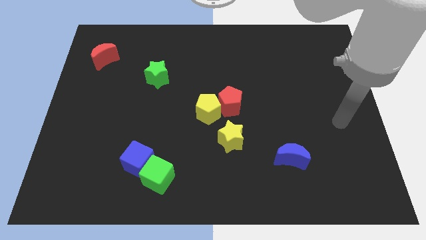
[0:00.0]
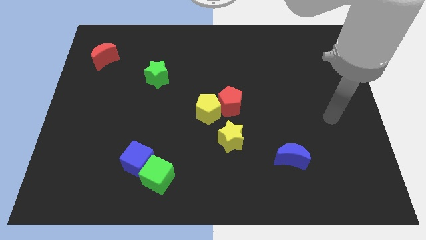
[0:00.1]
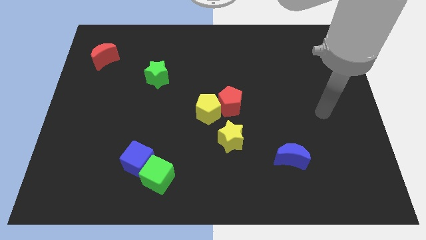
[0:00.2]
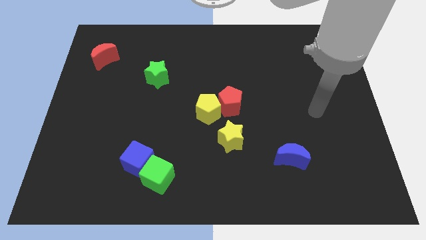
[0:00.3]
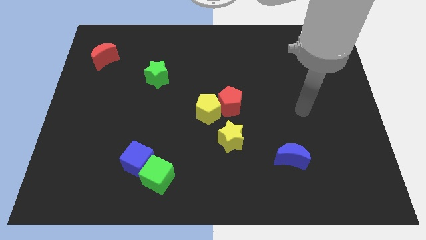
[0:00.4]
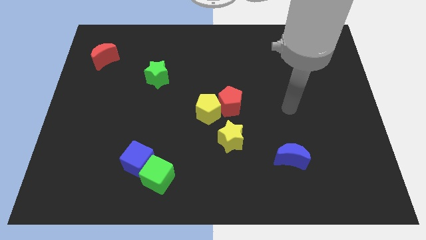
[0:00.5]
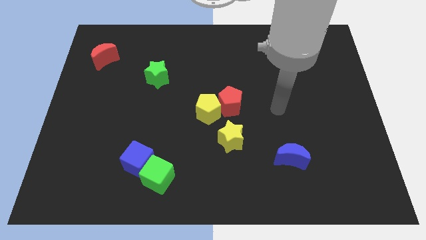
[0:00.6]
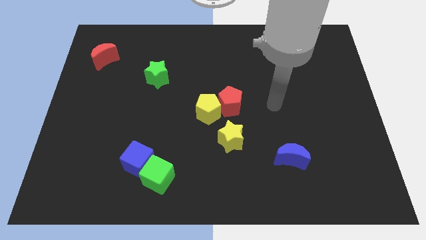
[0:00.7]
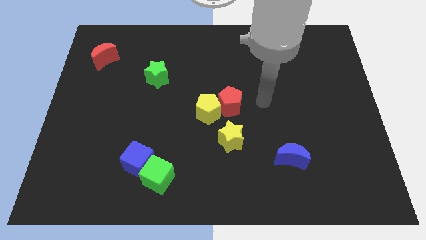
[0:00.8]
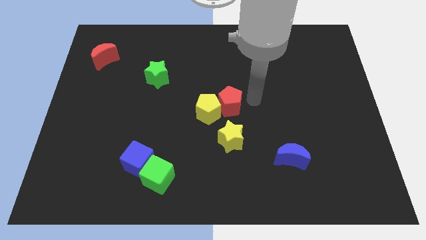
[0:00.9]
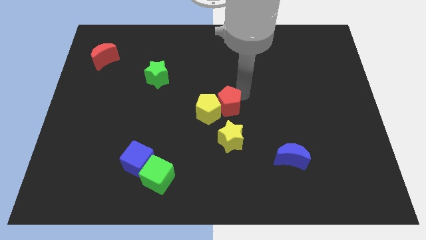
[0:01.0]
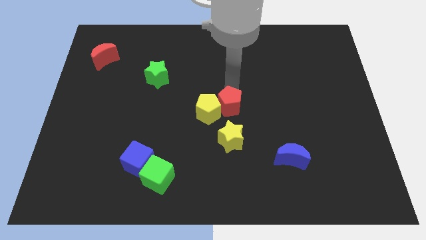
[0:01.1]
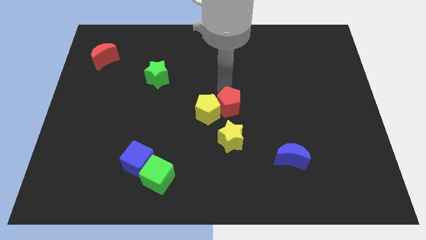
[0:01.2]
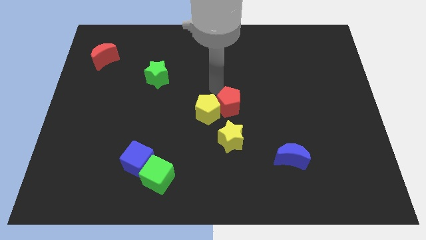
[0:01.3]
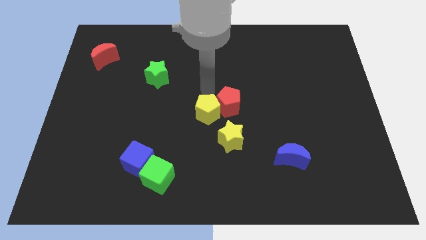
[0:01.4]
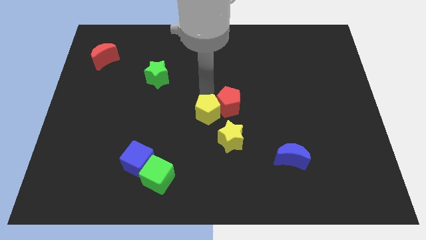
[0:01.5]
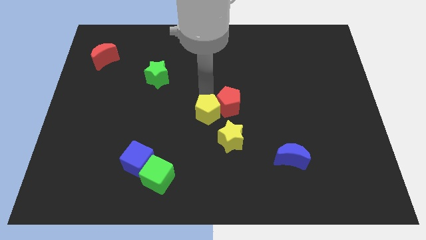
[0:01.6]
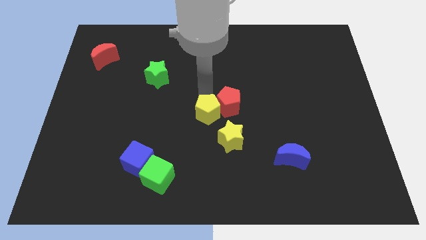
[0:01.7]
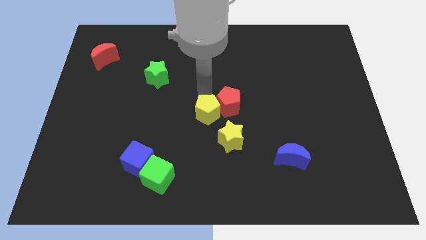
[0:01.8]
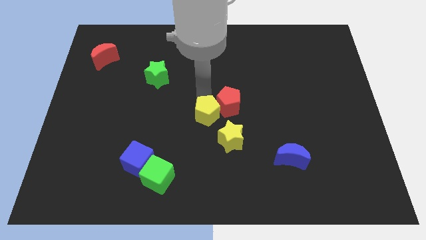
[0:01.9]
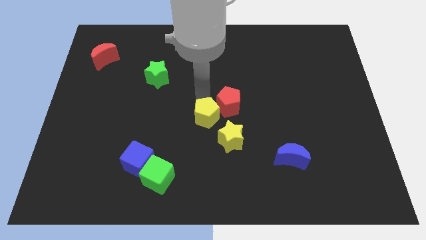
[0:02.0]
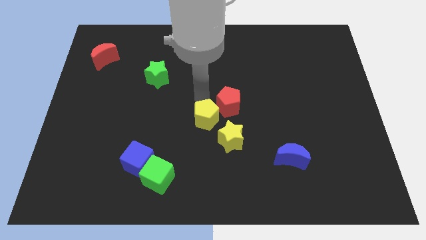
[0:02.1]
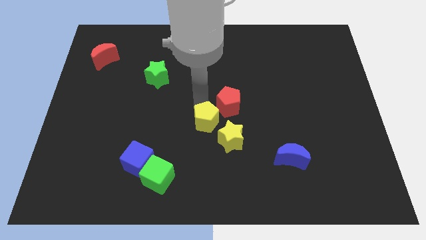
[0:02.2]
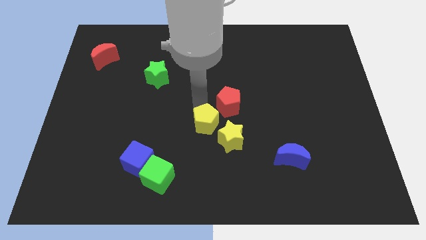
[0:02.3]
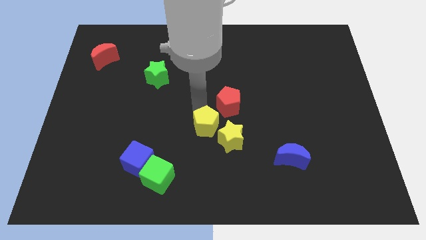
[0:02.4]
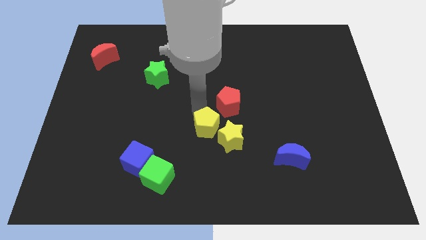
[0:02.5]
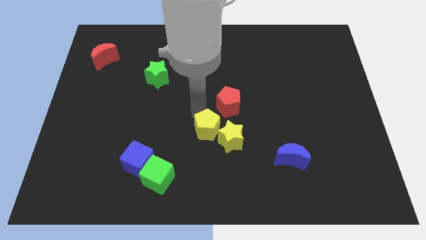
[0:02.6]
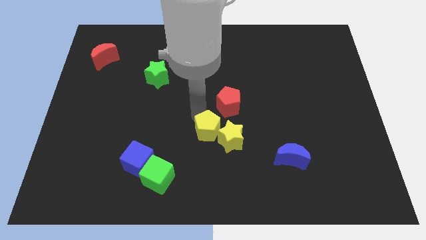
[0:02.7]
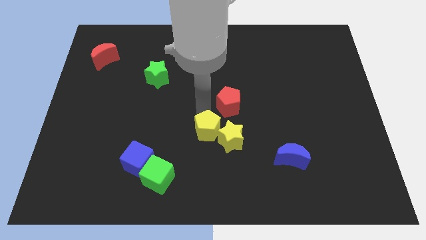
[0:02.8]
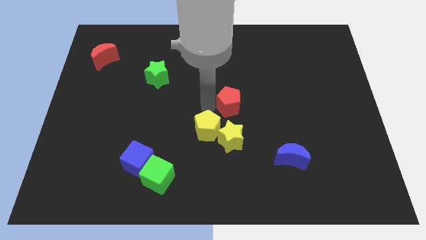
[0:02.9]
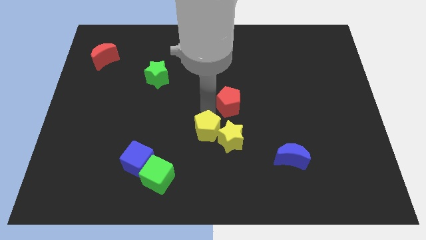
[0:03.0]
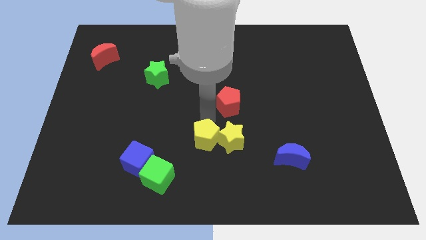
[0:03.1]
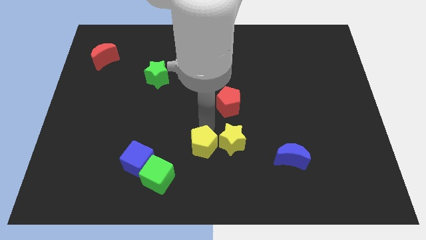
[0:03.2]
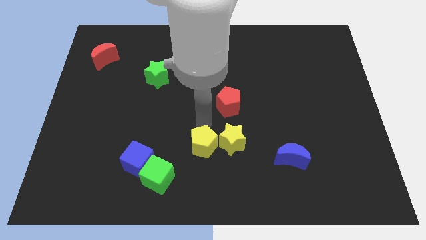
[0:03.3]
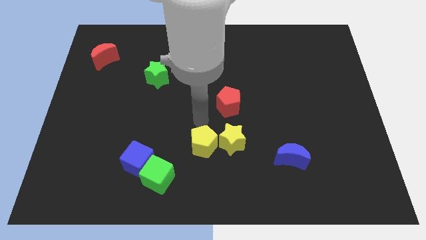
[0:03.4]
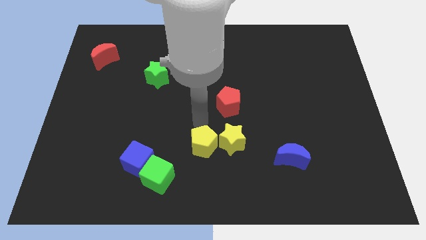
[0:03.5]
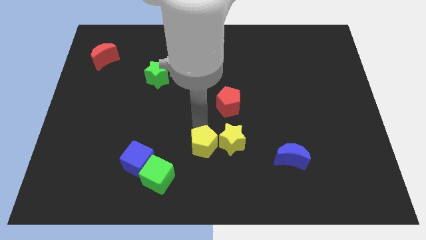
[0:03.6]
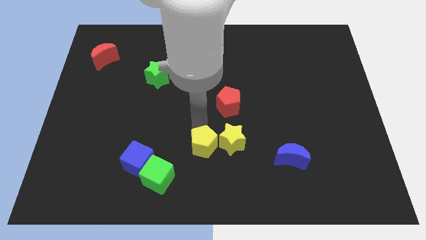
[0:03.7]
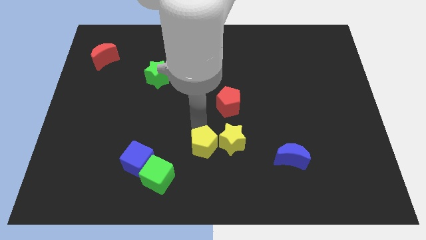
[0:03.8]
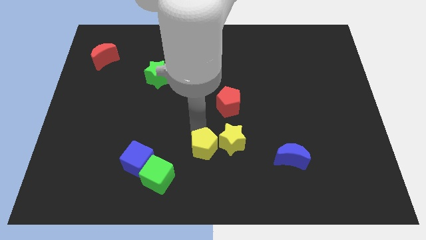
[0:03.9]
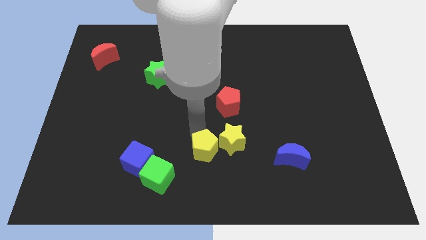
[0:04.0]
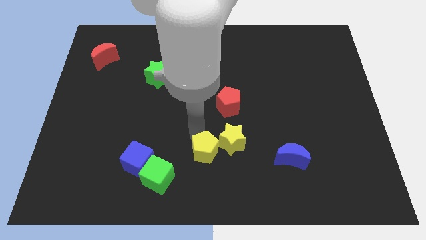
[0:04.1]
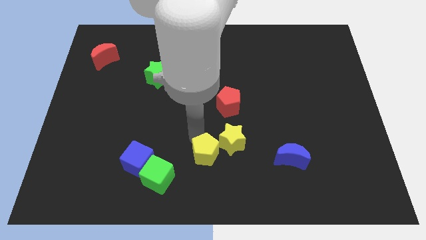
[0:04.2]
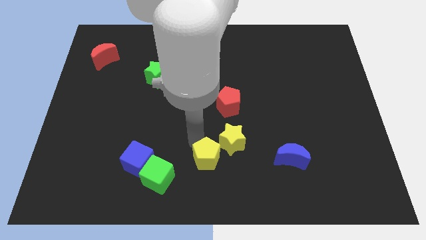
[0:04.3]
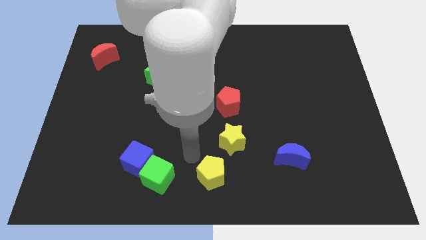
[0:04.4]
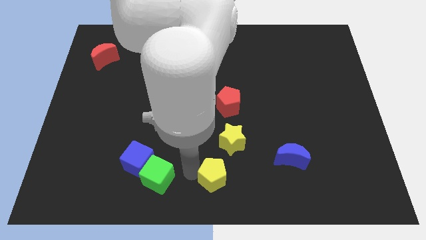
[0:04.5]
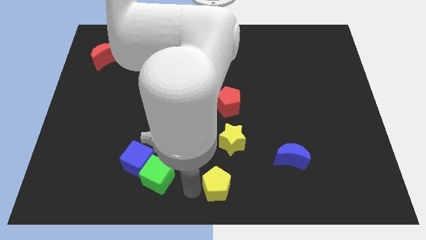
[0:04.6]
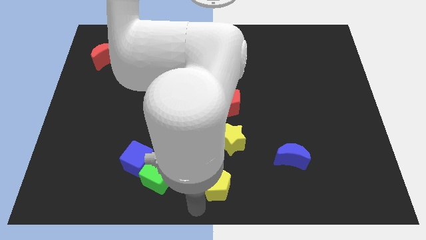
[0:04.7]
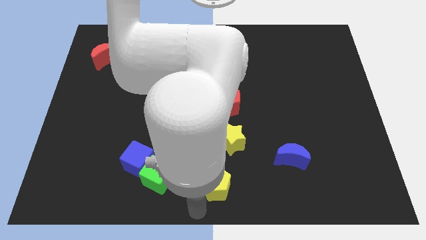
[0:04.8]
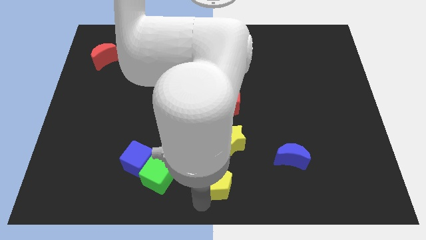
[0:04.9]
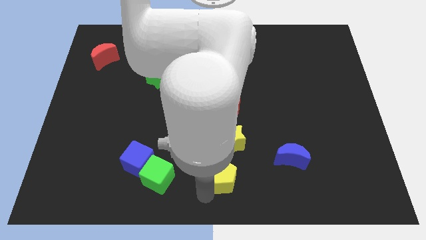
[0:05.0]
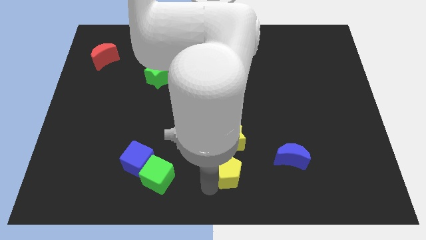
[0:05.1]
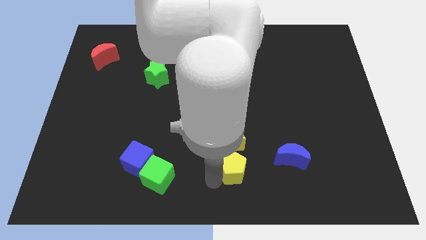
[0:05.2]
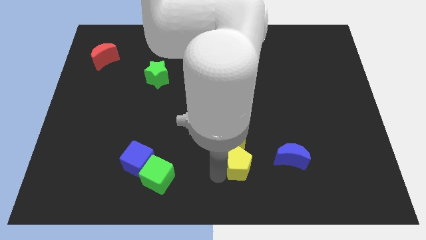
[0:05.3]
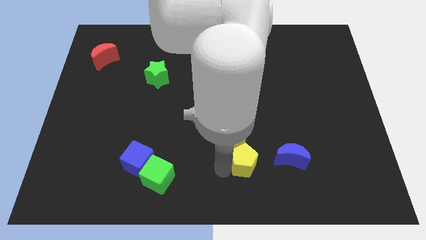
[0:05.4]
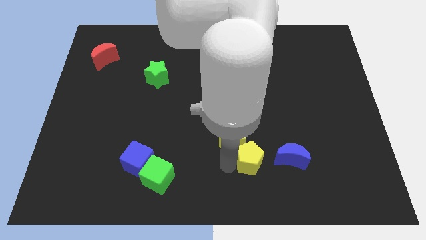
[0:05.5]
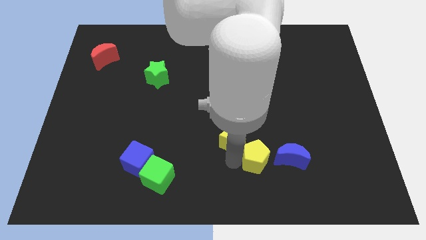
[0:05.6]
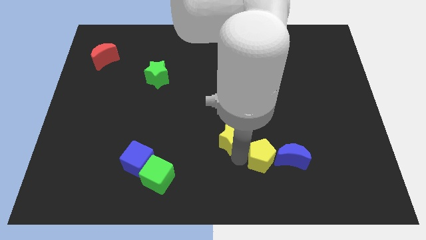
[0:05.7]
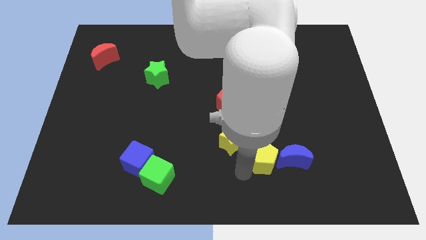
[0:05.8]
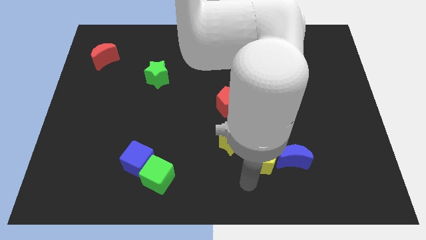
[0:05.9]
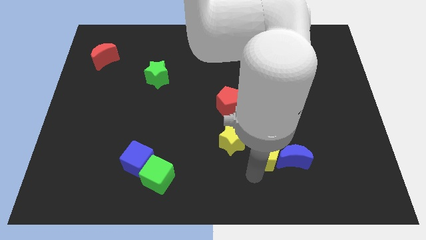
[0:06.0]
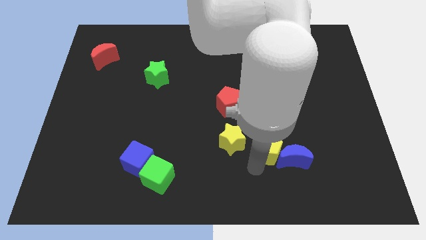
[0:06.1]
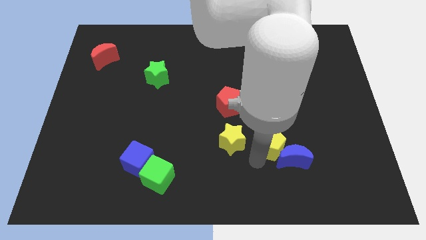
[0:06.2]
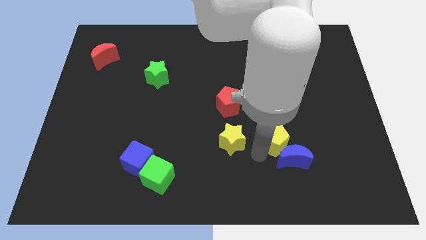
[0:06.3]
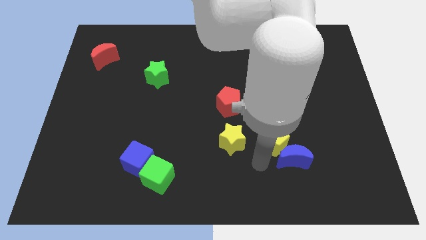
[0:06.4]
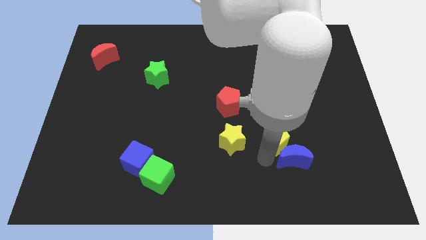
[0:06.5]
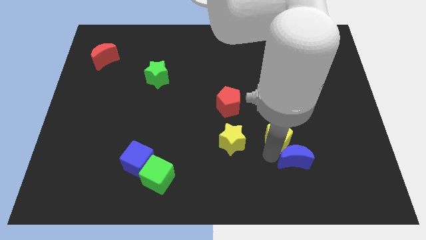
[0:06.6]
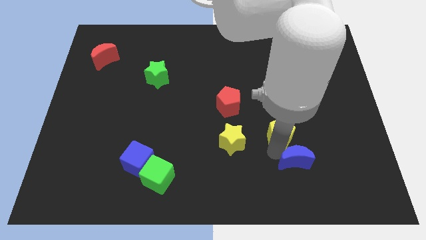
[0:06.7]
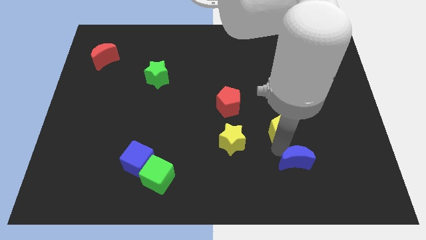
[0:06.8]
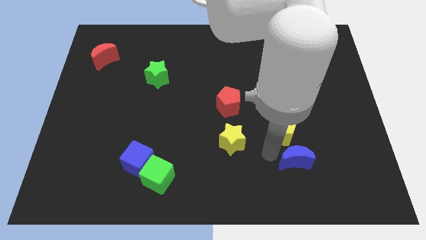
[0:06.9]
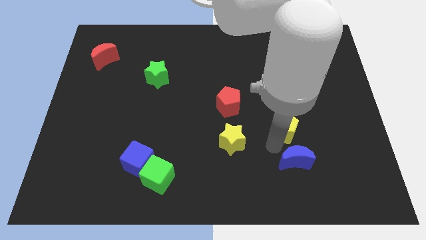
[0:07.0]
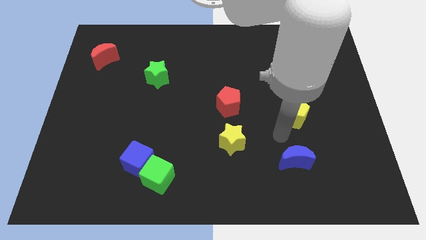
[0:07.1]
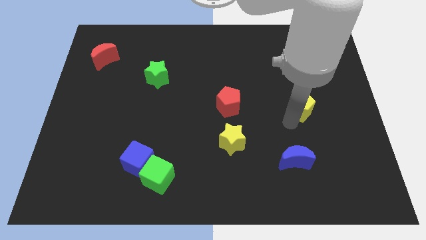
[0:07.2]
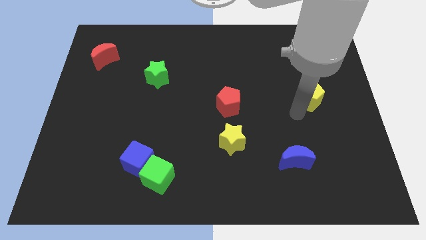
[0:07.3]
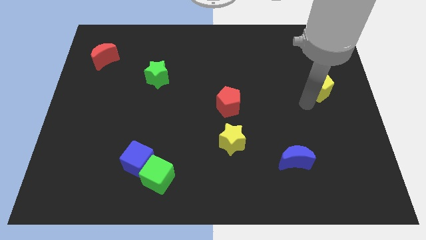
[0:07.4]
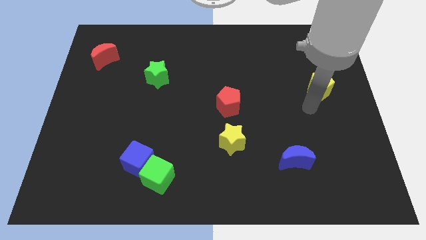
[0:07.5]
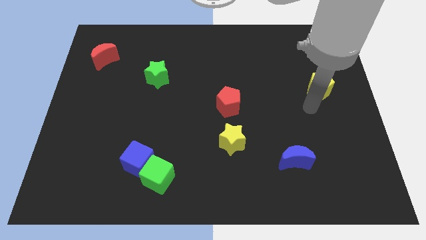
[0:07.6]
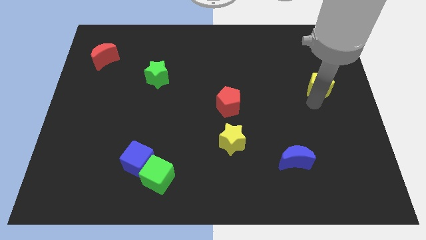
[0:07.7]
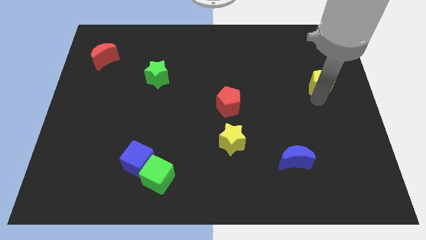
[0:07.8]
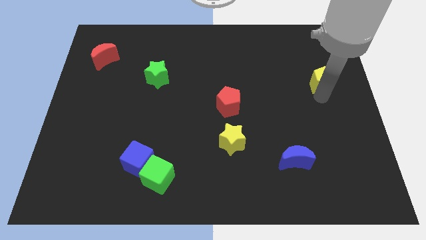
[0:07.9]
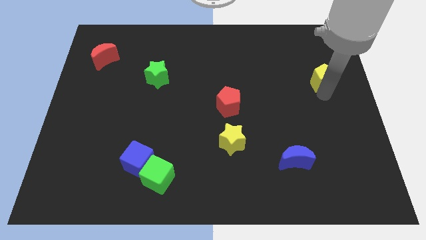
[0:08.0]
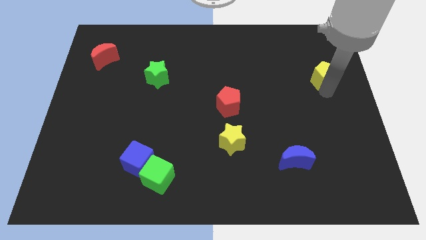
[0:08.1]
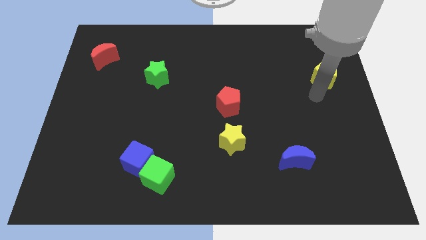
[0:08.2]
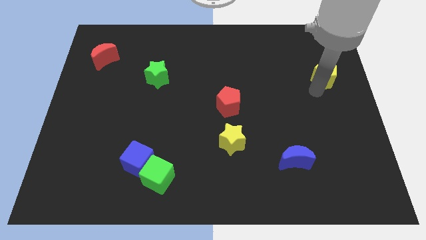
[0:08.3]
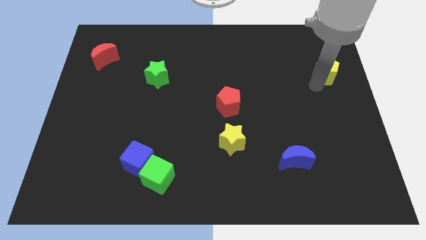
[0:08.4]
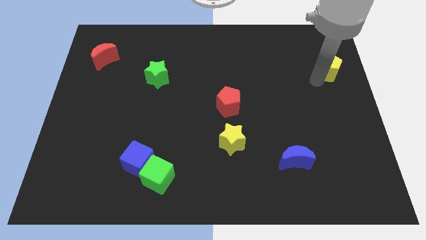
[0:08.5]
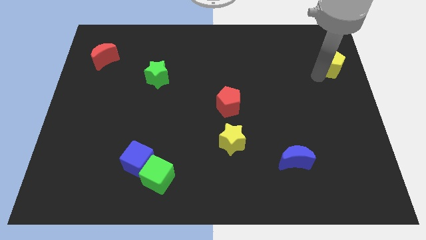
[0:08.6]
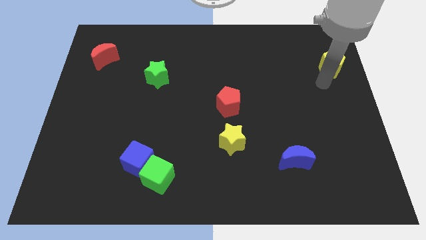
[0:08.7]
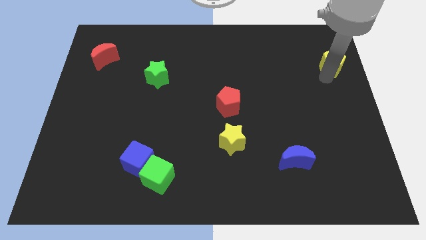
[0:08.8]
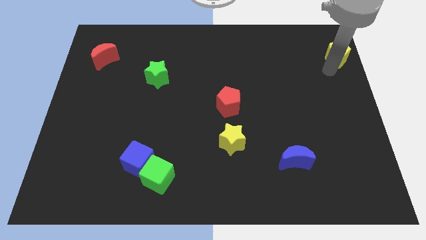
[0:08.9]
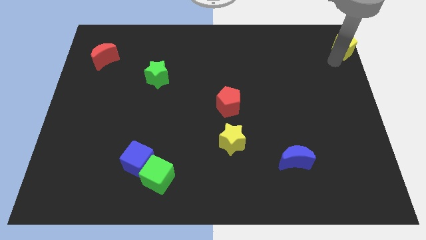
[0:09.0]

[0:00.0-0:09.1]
put the yellow pentagon to the top right
